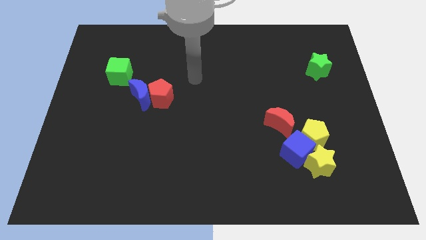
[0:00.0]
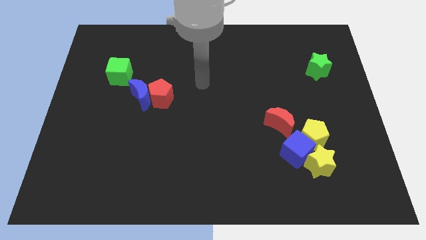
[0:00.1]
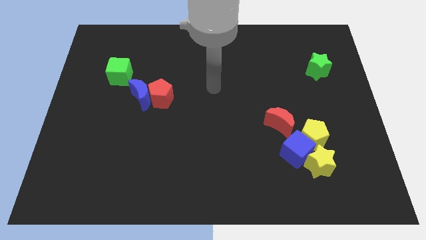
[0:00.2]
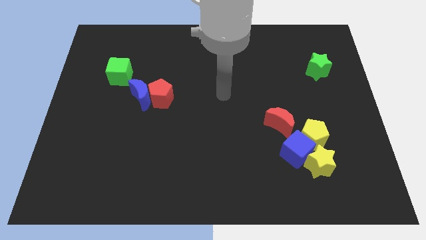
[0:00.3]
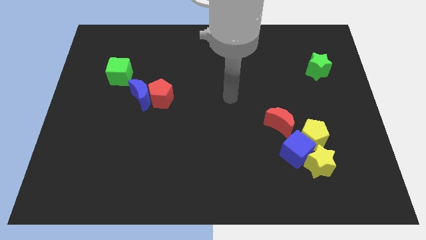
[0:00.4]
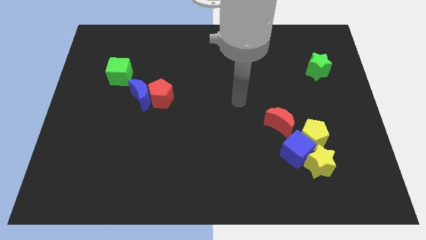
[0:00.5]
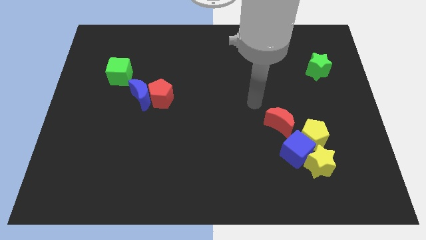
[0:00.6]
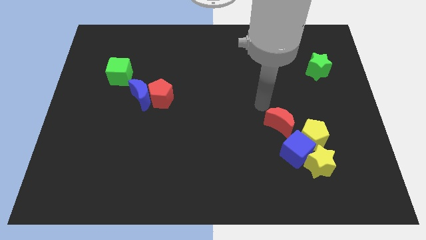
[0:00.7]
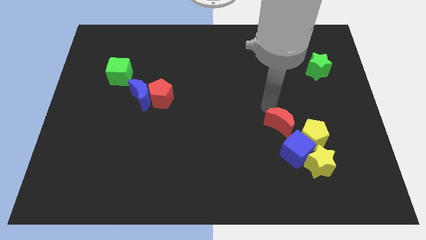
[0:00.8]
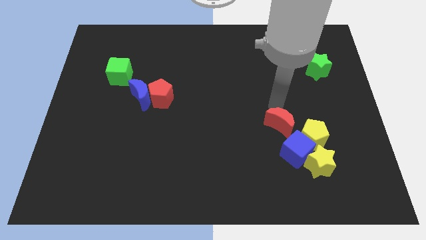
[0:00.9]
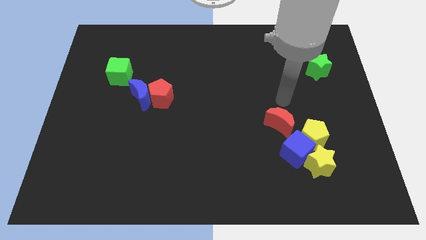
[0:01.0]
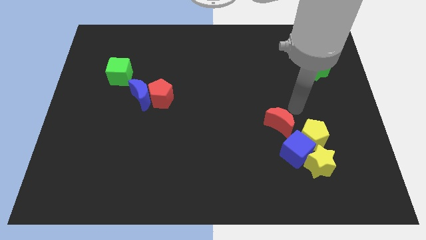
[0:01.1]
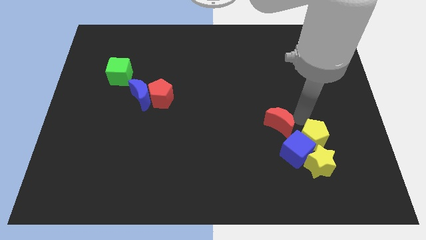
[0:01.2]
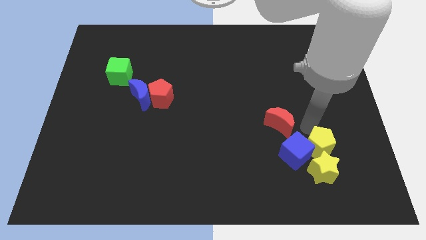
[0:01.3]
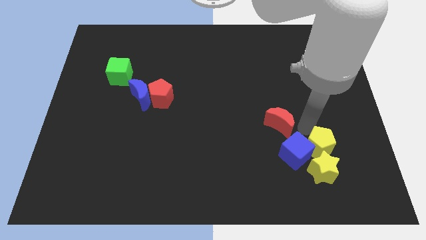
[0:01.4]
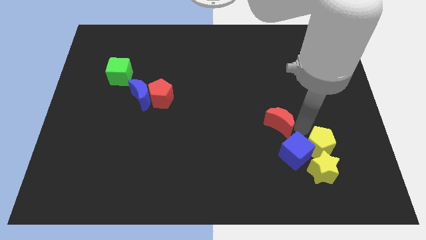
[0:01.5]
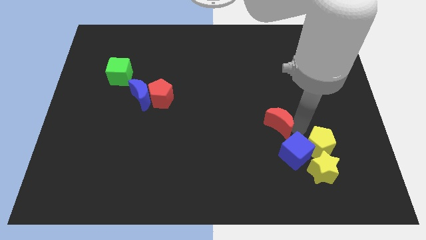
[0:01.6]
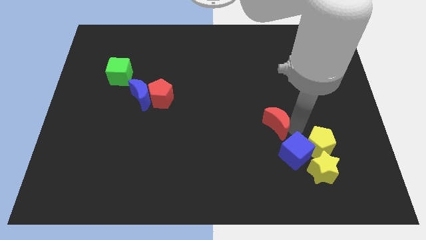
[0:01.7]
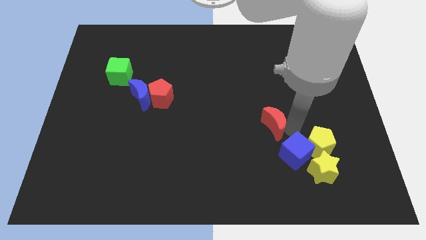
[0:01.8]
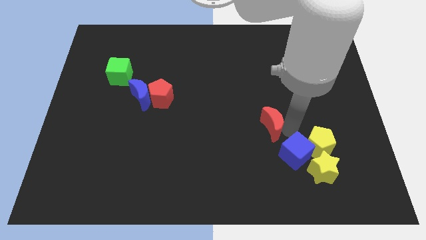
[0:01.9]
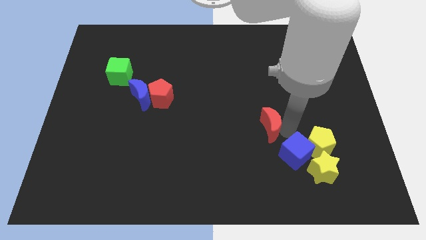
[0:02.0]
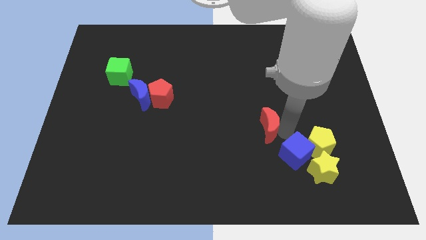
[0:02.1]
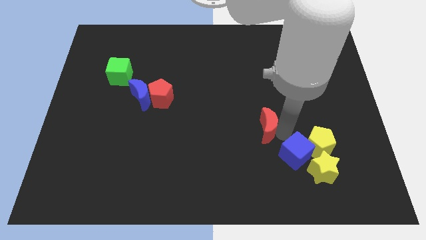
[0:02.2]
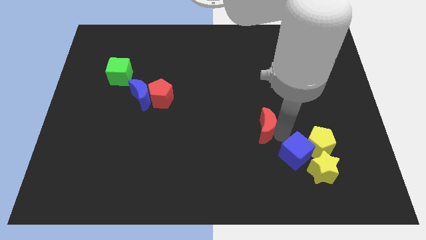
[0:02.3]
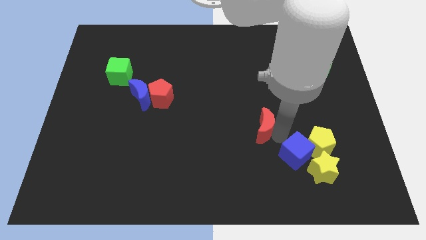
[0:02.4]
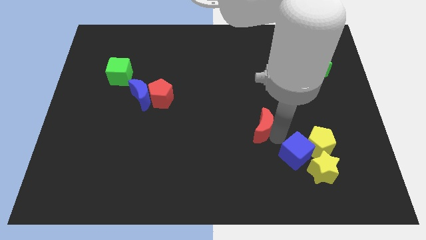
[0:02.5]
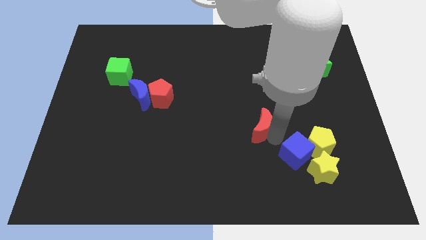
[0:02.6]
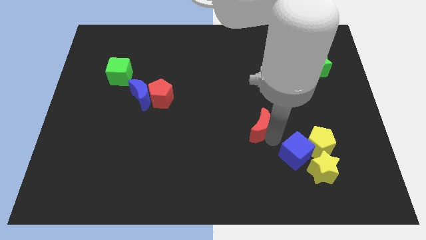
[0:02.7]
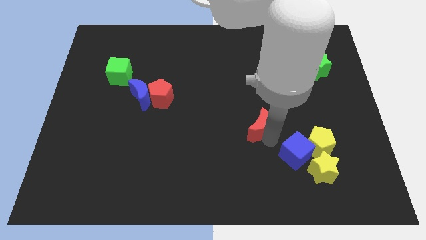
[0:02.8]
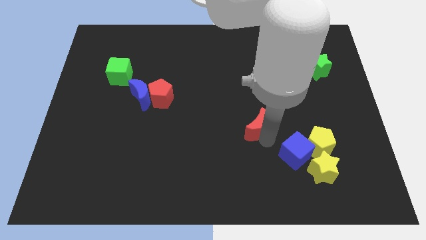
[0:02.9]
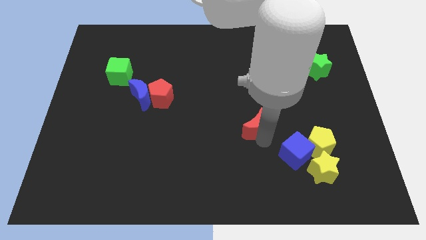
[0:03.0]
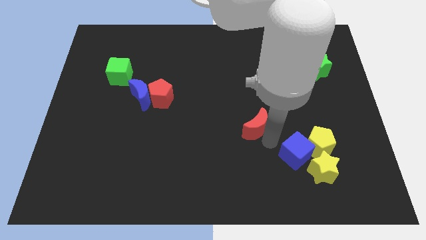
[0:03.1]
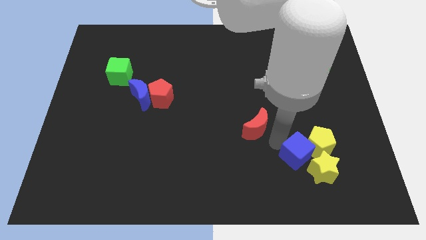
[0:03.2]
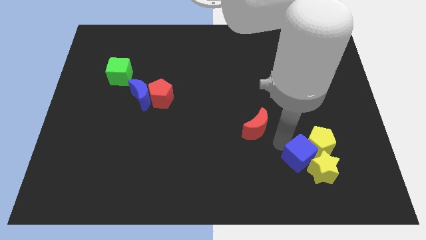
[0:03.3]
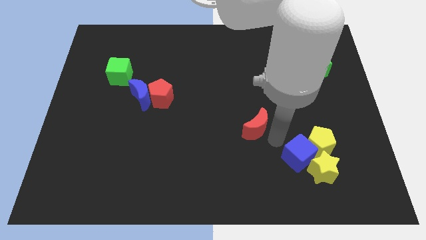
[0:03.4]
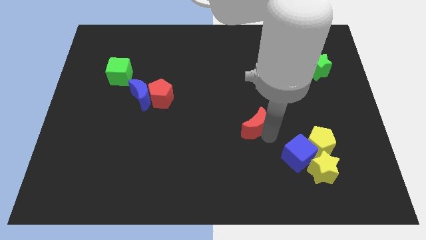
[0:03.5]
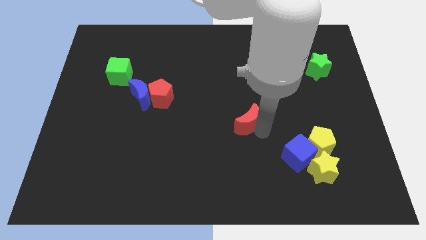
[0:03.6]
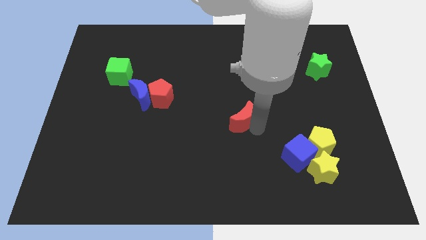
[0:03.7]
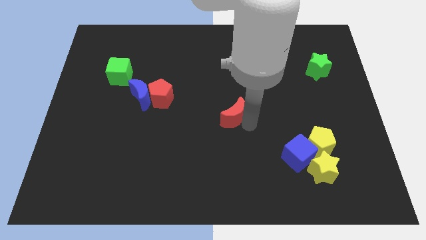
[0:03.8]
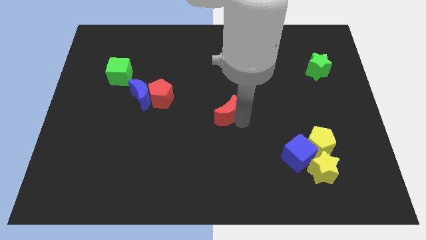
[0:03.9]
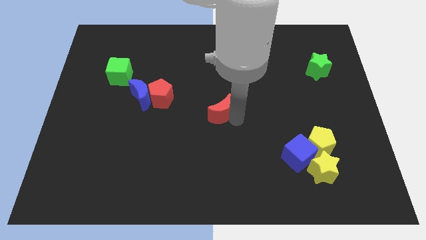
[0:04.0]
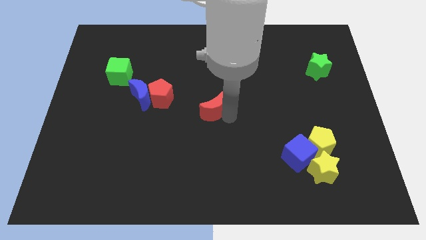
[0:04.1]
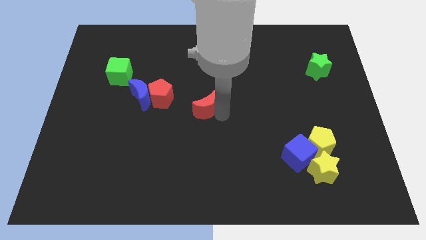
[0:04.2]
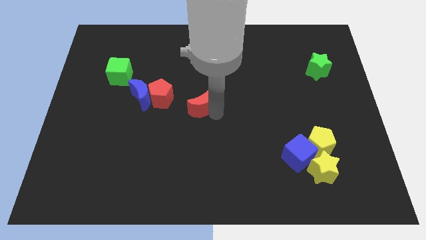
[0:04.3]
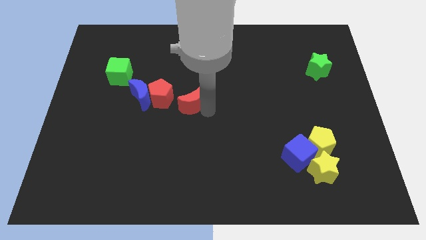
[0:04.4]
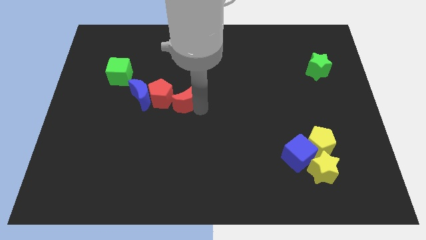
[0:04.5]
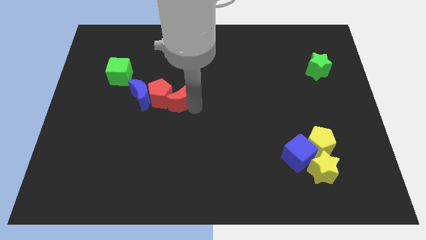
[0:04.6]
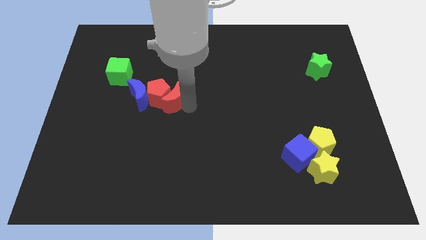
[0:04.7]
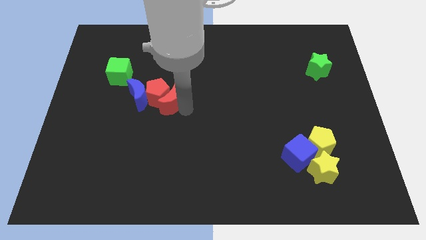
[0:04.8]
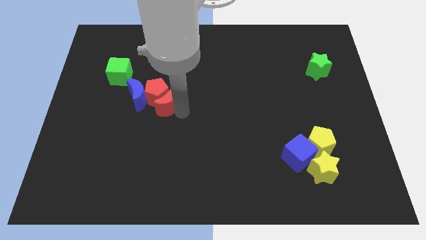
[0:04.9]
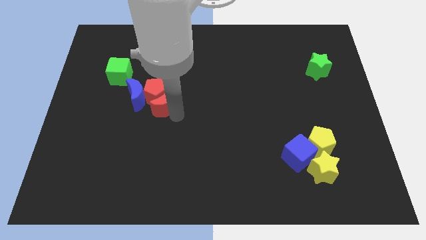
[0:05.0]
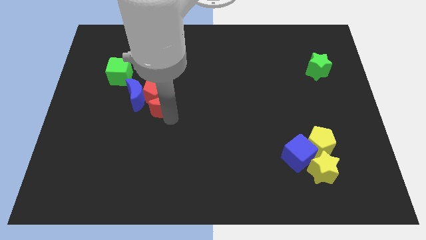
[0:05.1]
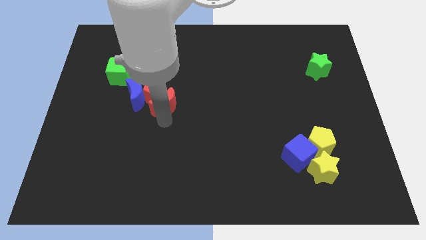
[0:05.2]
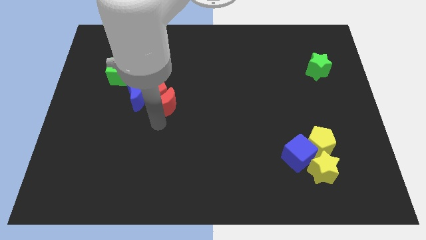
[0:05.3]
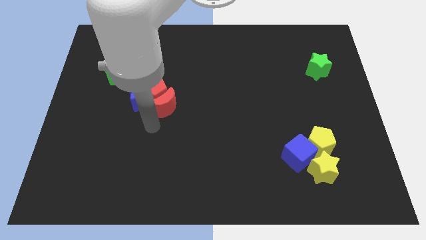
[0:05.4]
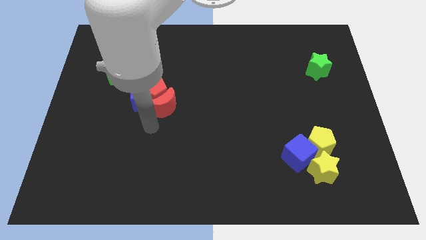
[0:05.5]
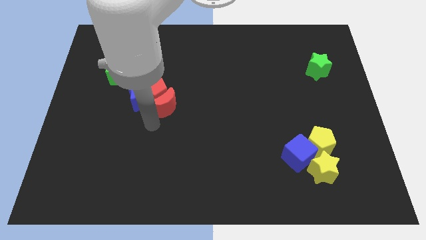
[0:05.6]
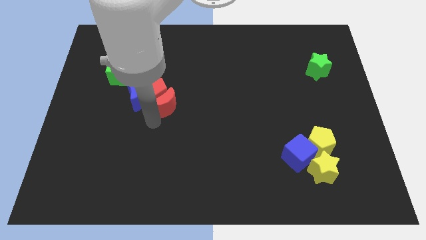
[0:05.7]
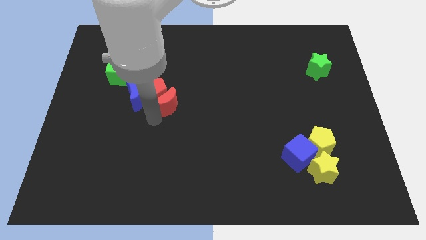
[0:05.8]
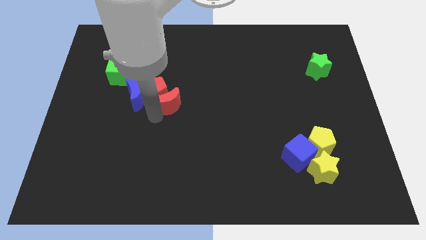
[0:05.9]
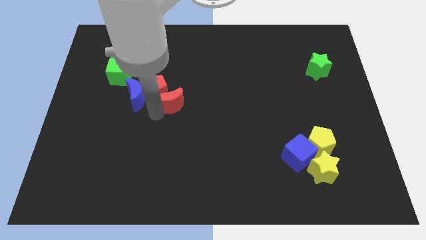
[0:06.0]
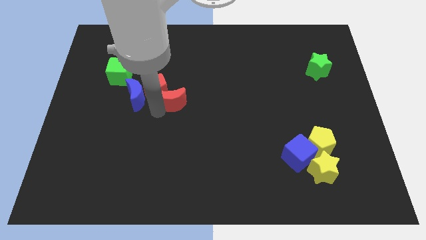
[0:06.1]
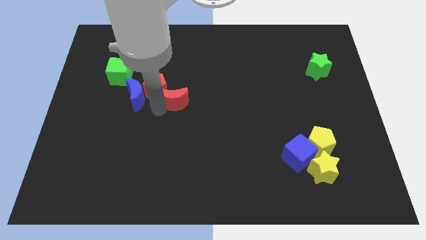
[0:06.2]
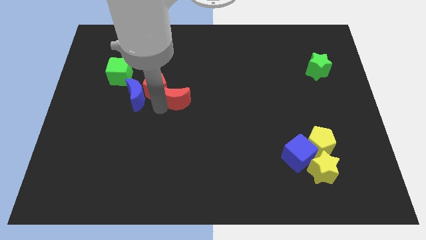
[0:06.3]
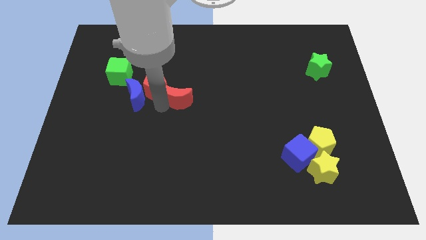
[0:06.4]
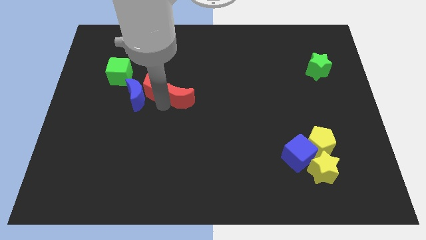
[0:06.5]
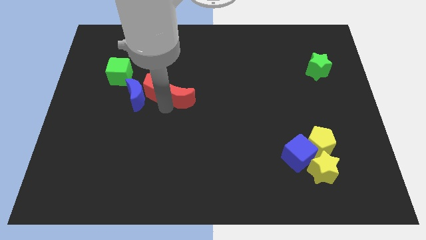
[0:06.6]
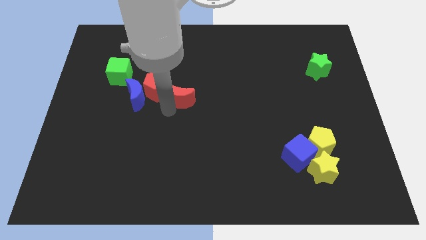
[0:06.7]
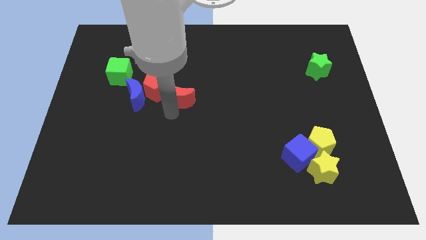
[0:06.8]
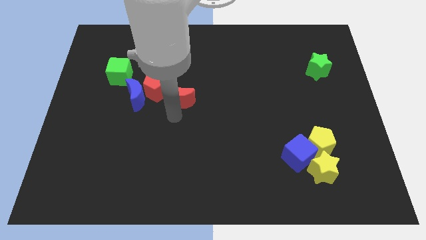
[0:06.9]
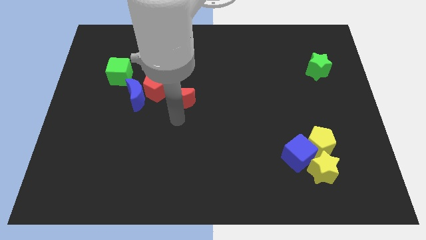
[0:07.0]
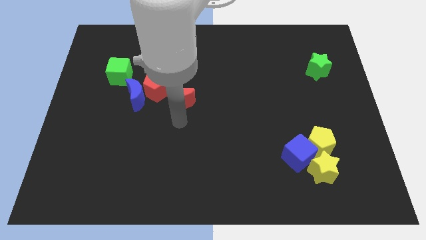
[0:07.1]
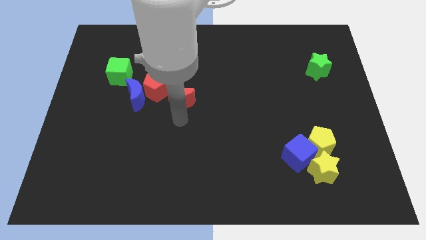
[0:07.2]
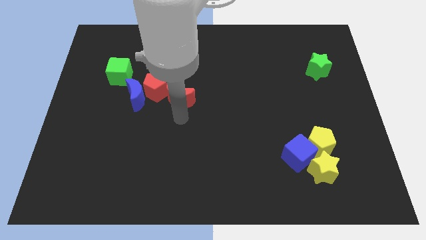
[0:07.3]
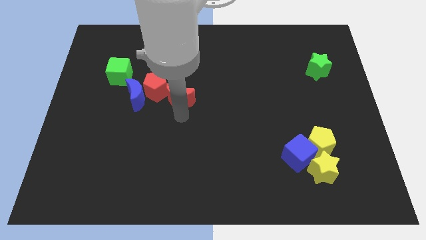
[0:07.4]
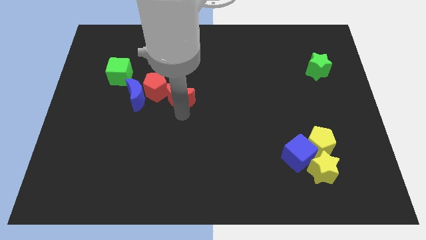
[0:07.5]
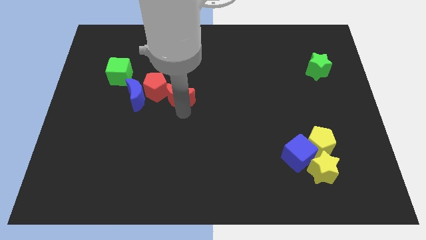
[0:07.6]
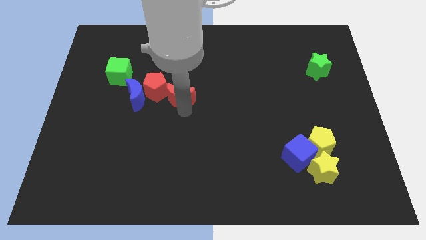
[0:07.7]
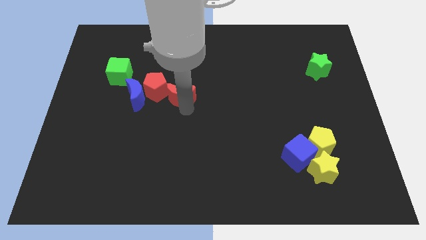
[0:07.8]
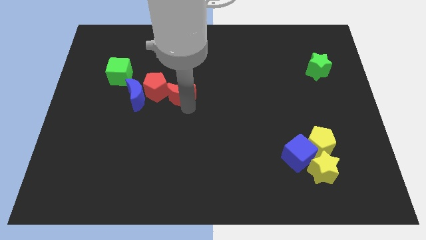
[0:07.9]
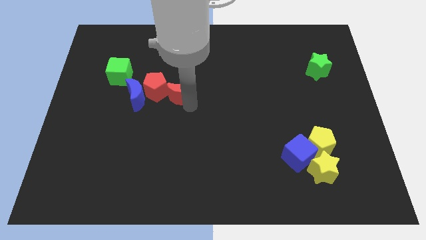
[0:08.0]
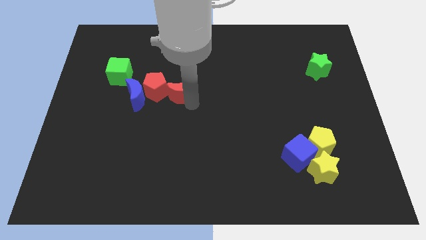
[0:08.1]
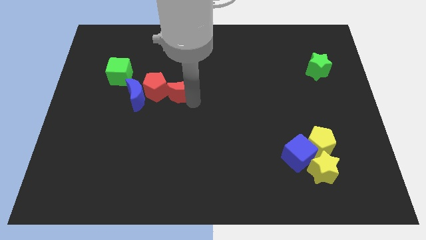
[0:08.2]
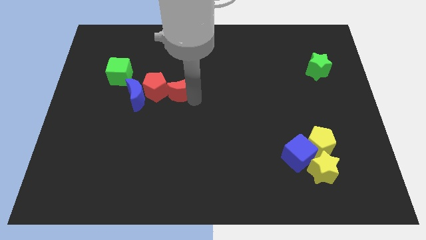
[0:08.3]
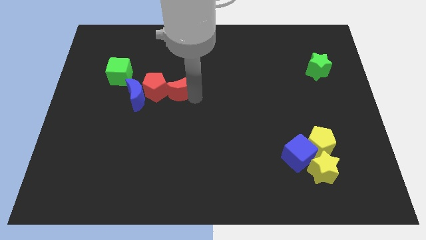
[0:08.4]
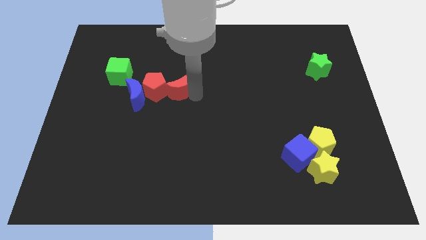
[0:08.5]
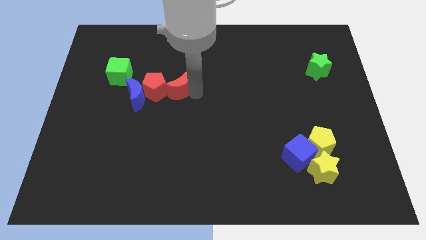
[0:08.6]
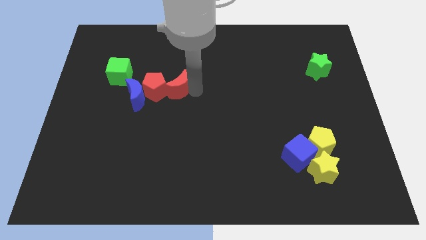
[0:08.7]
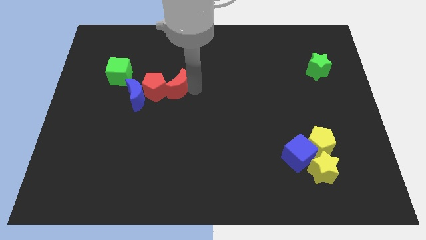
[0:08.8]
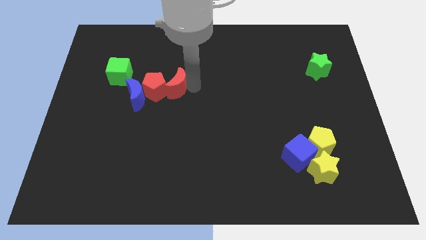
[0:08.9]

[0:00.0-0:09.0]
put the red moon to the top right side of the blue moon
